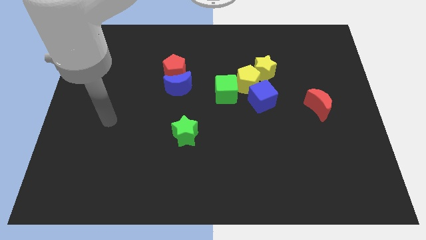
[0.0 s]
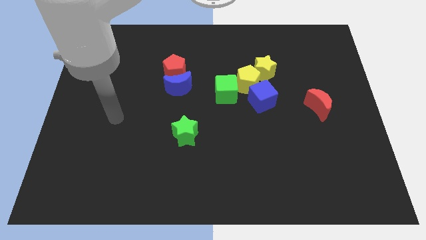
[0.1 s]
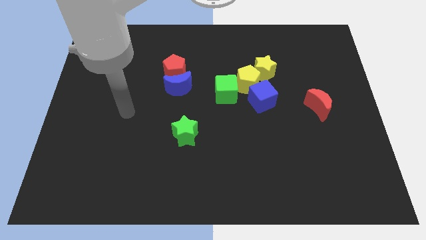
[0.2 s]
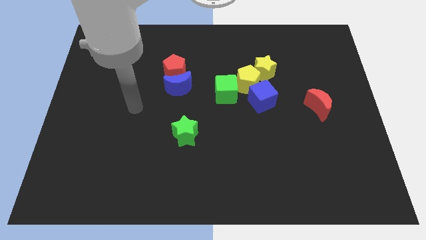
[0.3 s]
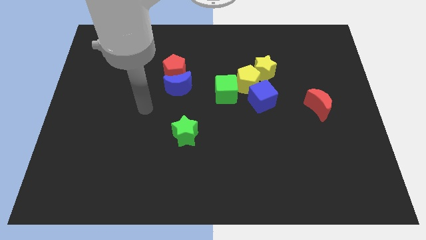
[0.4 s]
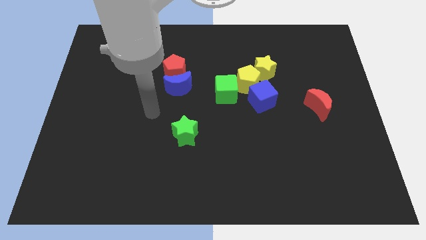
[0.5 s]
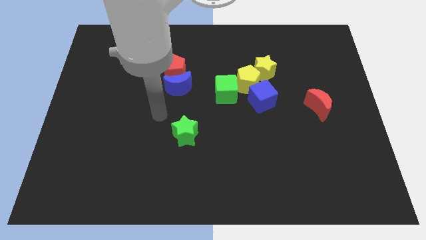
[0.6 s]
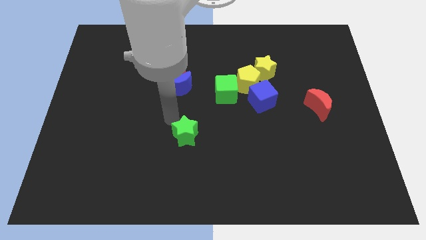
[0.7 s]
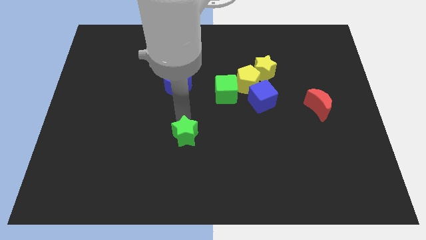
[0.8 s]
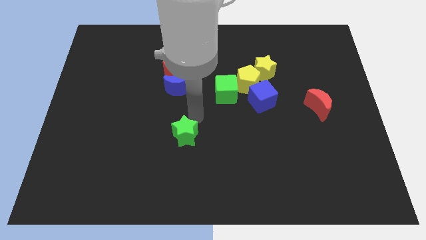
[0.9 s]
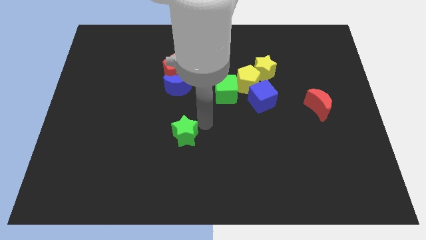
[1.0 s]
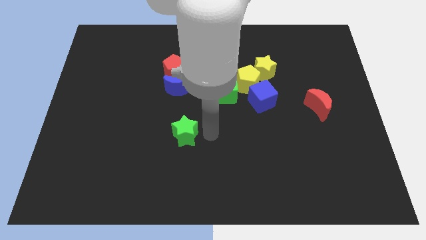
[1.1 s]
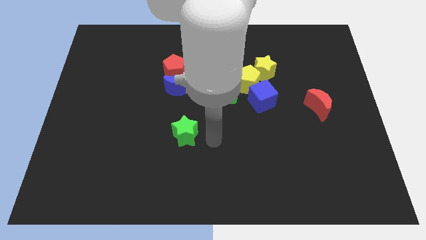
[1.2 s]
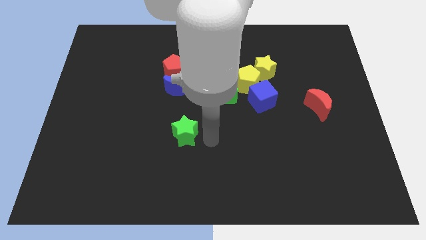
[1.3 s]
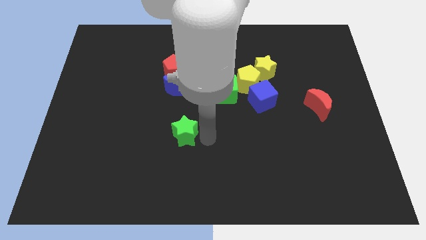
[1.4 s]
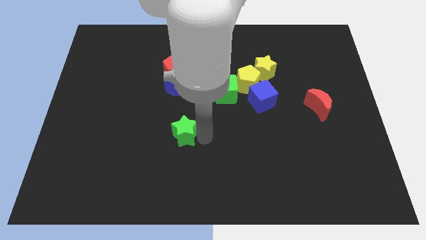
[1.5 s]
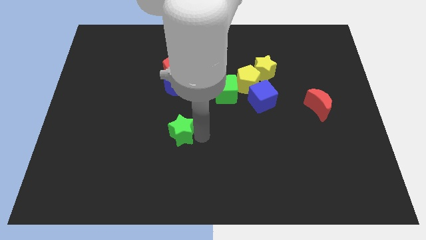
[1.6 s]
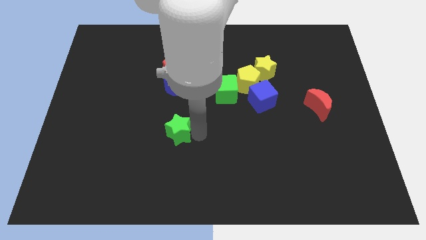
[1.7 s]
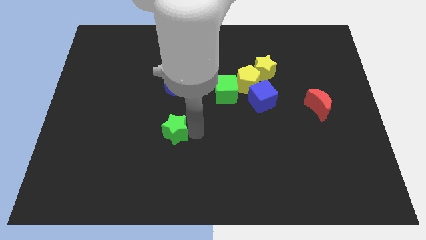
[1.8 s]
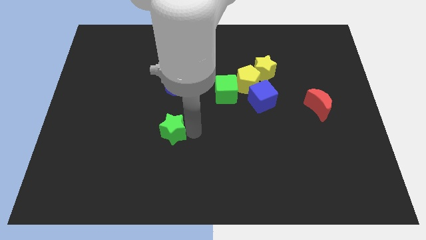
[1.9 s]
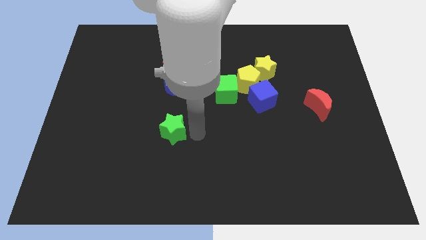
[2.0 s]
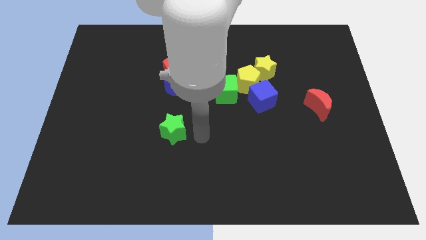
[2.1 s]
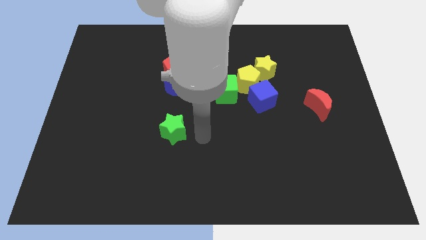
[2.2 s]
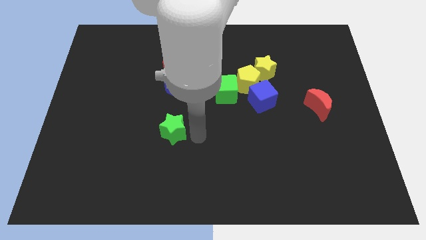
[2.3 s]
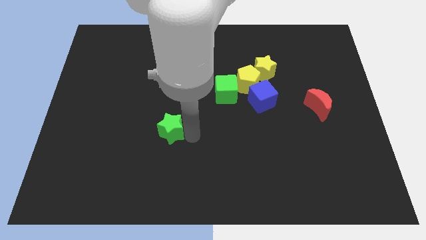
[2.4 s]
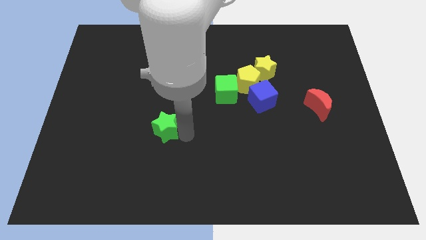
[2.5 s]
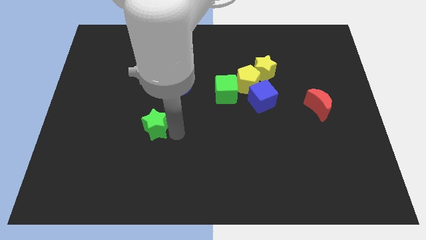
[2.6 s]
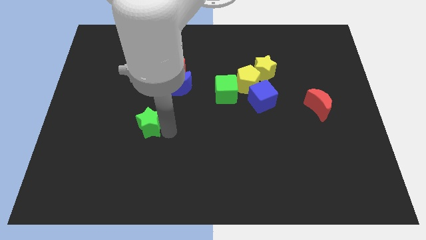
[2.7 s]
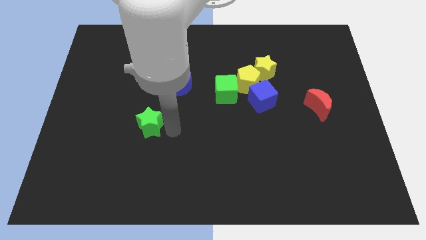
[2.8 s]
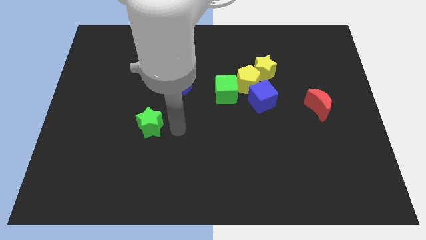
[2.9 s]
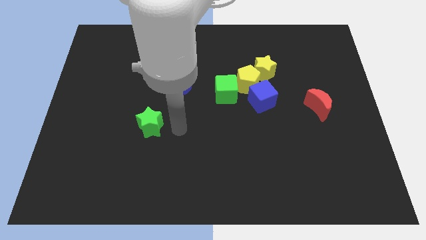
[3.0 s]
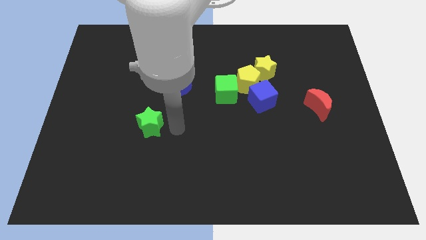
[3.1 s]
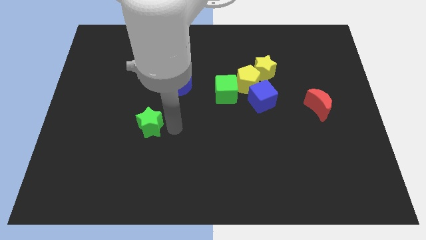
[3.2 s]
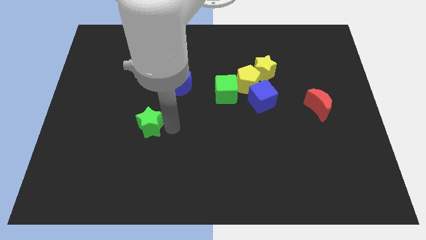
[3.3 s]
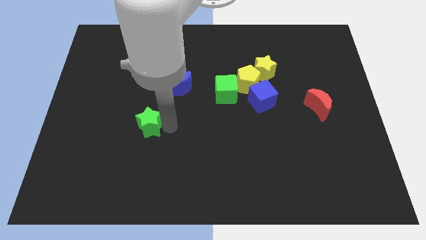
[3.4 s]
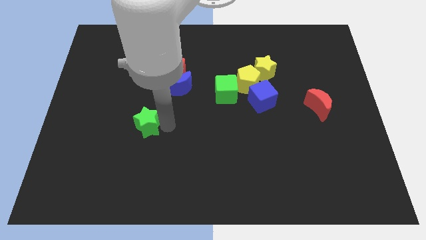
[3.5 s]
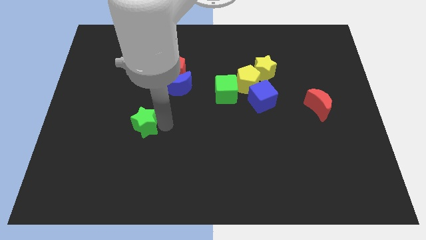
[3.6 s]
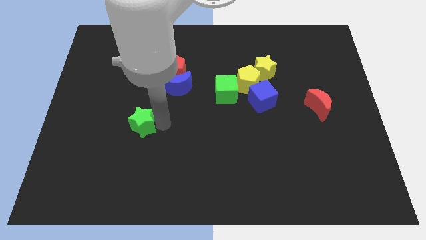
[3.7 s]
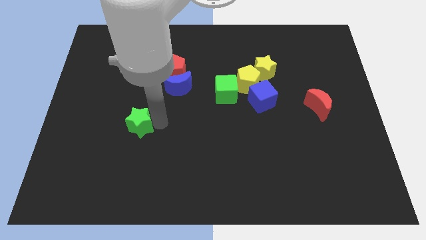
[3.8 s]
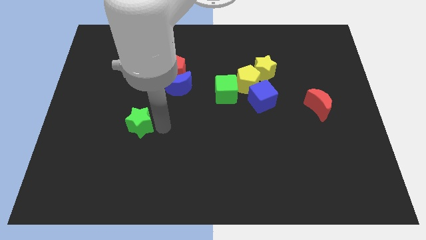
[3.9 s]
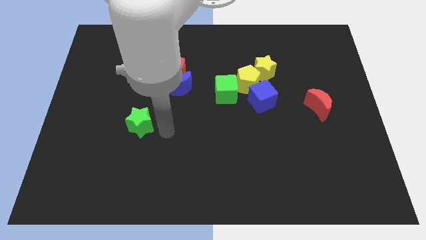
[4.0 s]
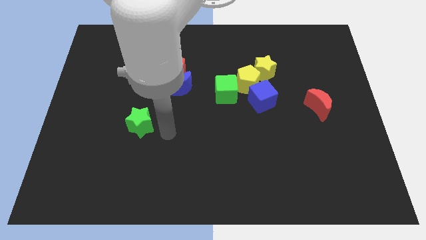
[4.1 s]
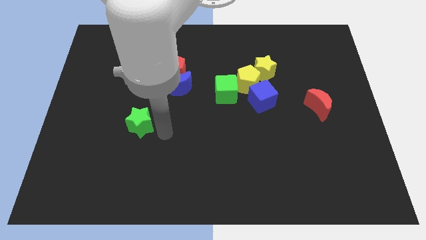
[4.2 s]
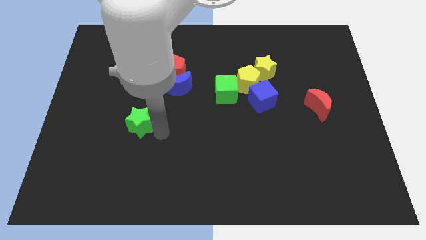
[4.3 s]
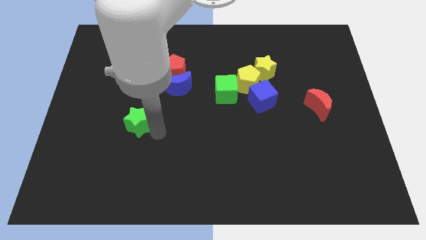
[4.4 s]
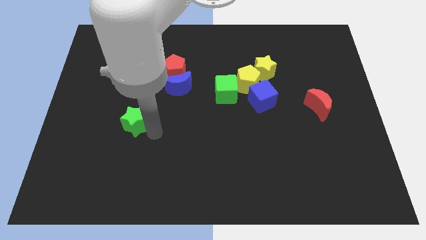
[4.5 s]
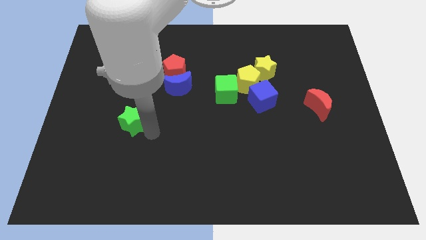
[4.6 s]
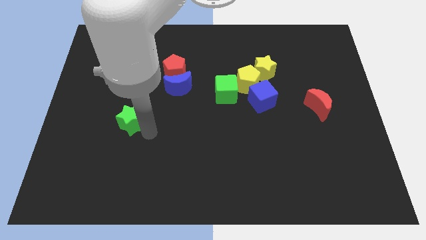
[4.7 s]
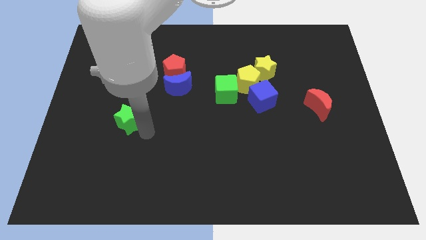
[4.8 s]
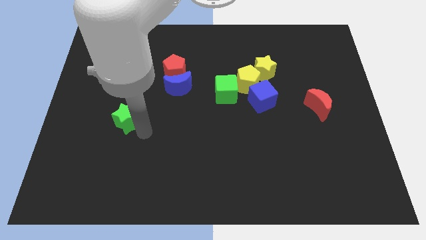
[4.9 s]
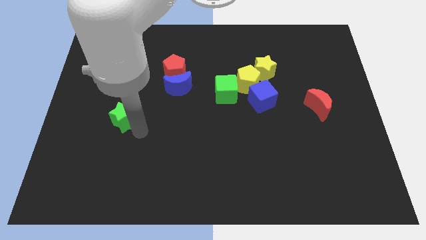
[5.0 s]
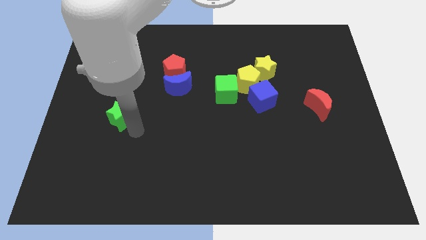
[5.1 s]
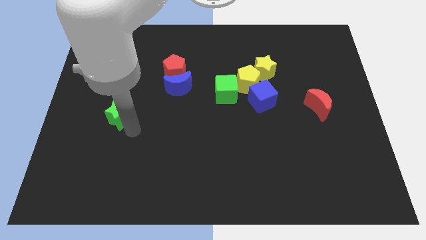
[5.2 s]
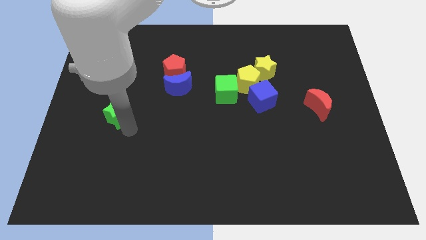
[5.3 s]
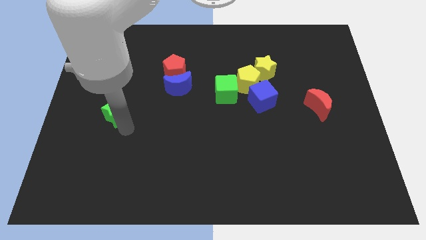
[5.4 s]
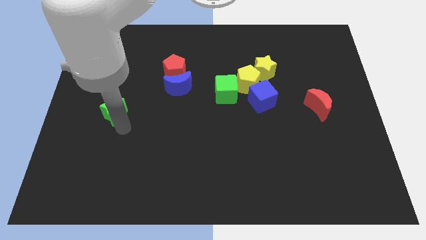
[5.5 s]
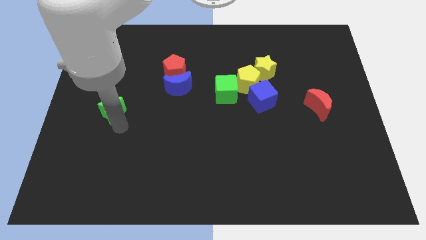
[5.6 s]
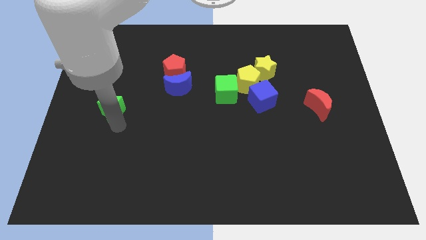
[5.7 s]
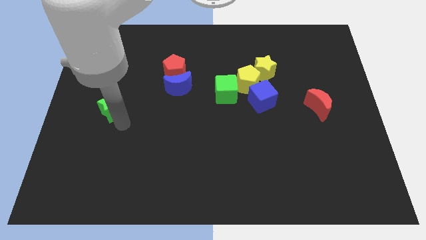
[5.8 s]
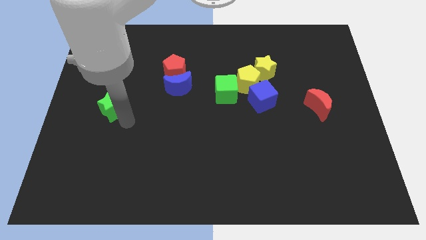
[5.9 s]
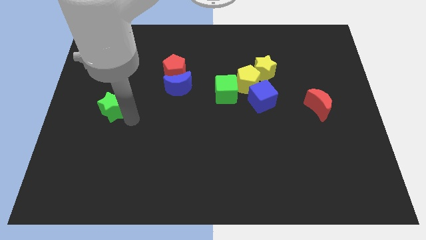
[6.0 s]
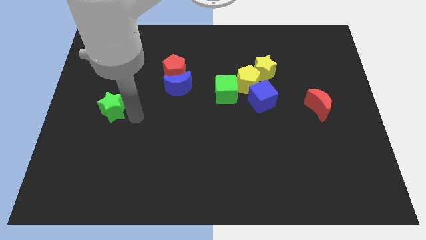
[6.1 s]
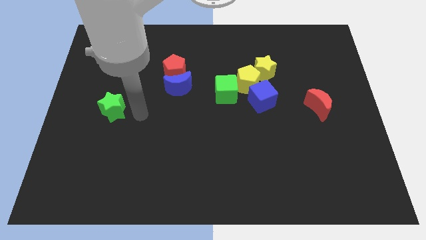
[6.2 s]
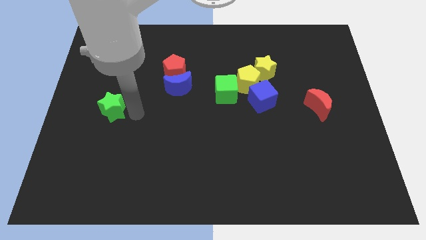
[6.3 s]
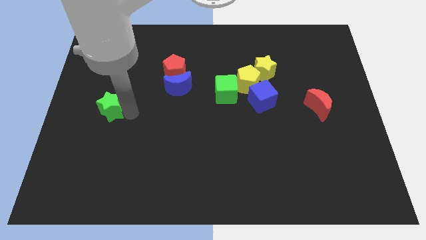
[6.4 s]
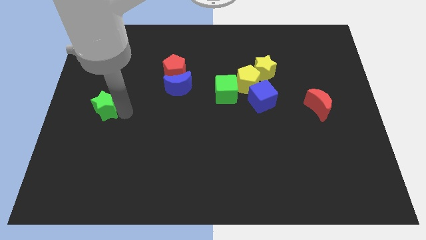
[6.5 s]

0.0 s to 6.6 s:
push the green star to the left side of the board
